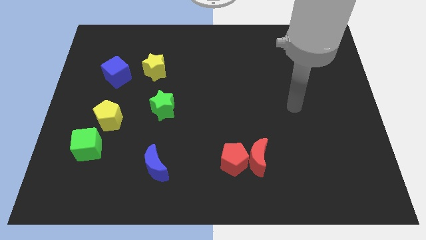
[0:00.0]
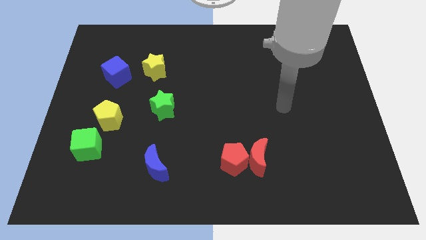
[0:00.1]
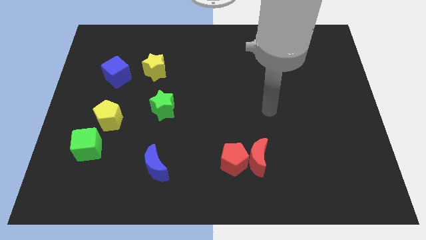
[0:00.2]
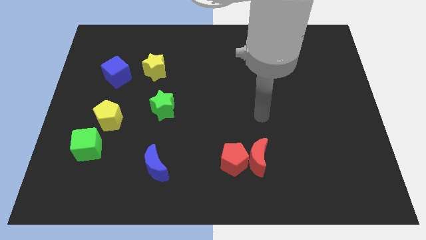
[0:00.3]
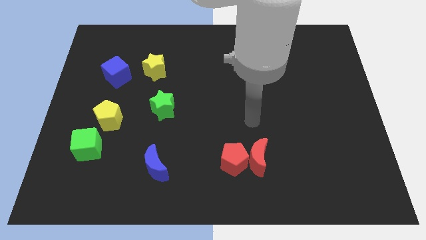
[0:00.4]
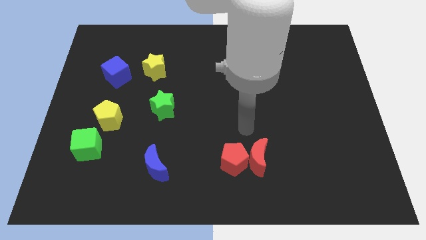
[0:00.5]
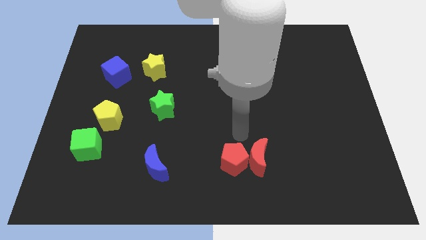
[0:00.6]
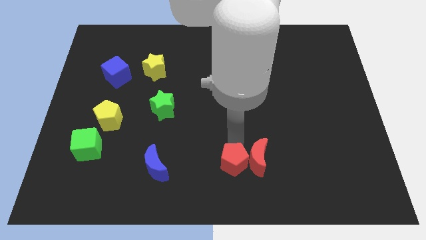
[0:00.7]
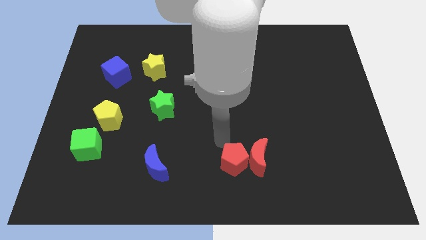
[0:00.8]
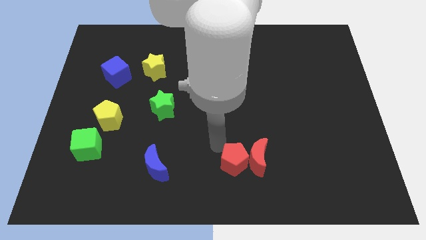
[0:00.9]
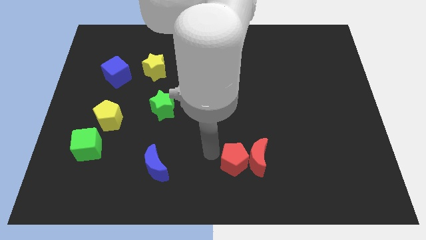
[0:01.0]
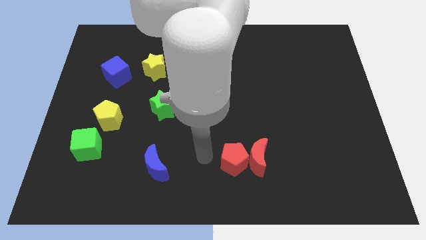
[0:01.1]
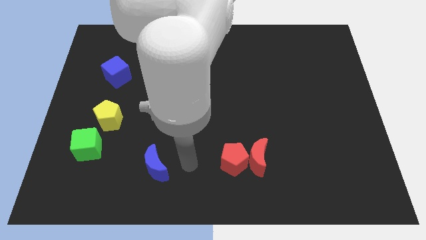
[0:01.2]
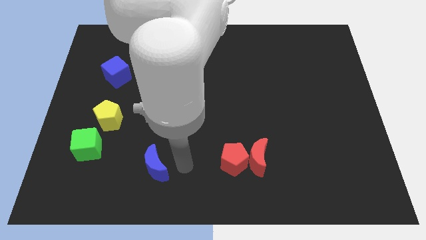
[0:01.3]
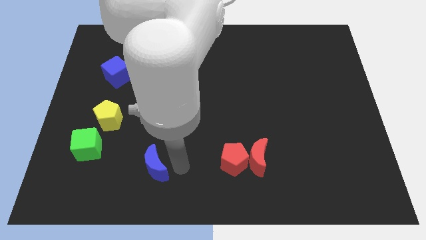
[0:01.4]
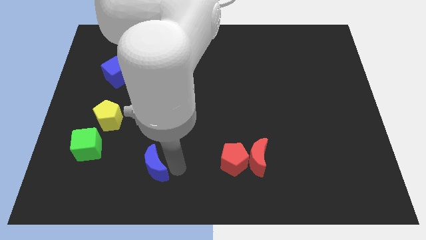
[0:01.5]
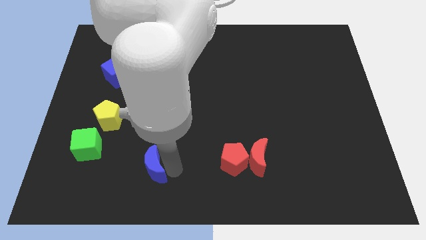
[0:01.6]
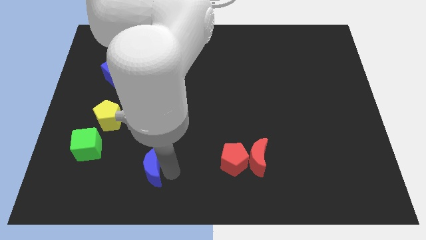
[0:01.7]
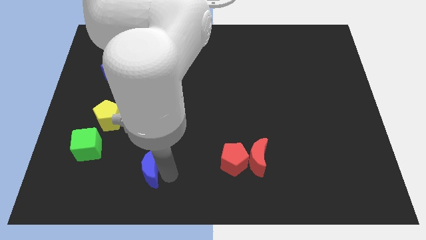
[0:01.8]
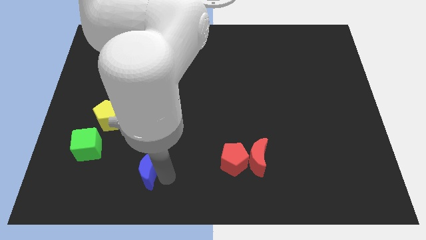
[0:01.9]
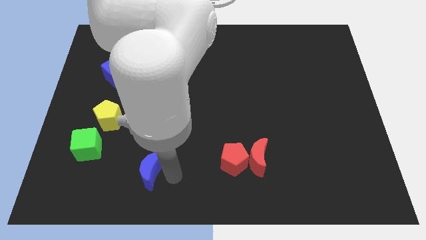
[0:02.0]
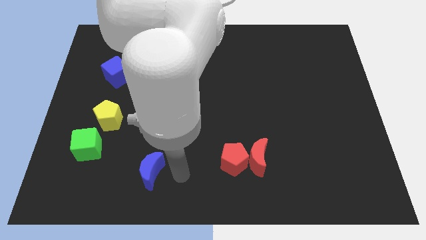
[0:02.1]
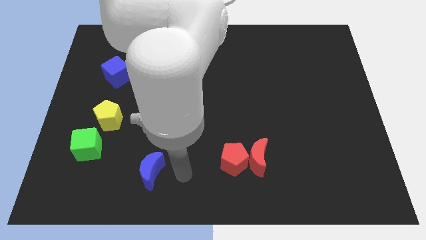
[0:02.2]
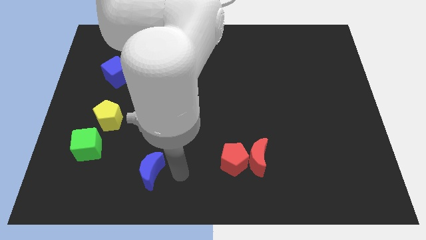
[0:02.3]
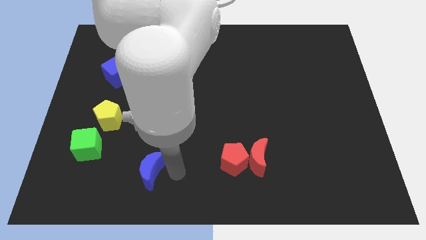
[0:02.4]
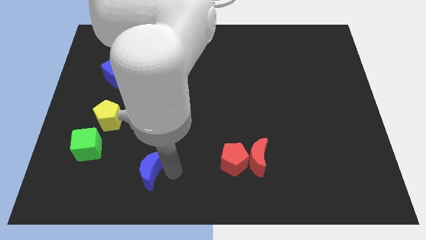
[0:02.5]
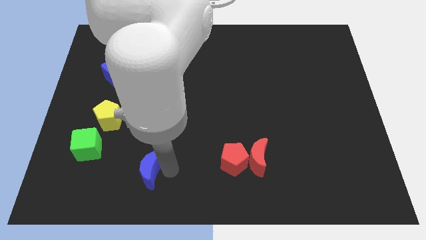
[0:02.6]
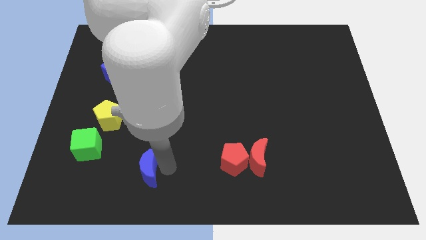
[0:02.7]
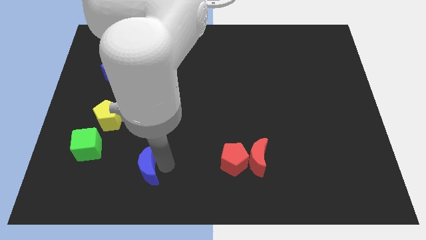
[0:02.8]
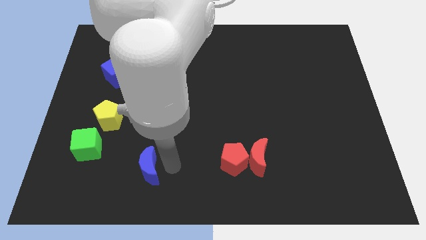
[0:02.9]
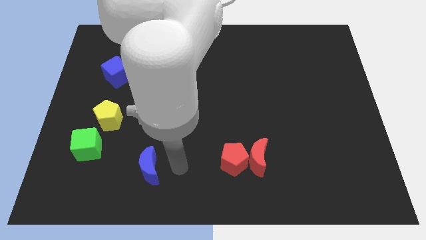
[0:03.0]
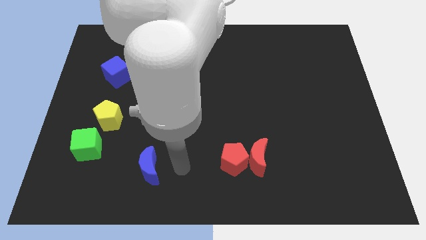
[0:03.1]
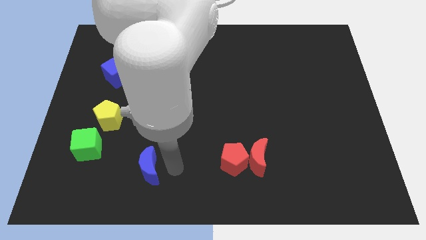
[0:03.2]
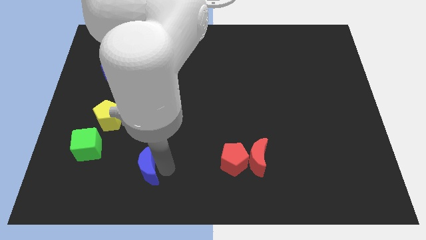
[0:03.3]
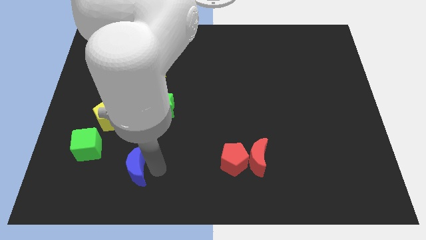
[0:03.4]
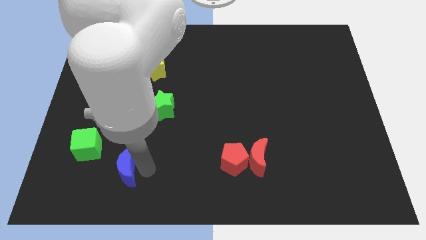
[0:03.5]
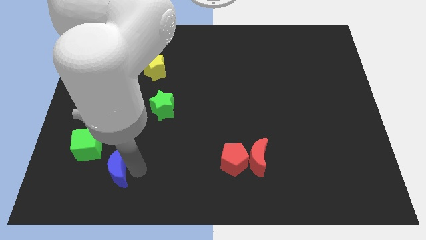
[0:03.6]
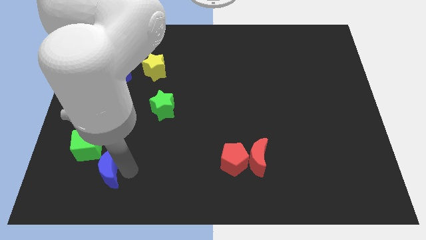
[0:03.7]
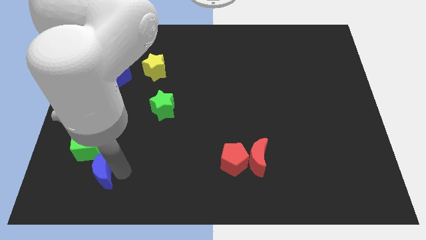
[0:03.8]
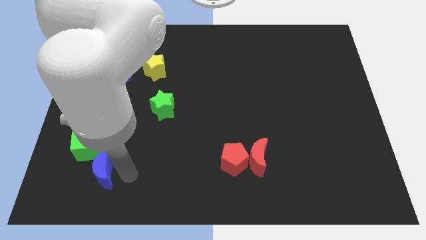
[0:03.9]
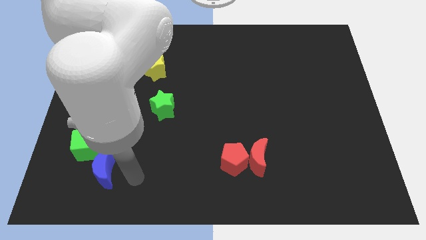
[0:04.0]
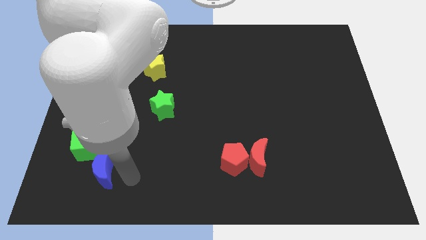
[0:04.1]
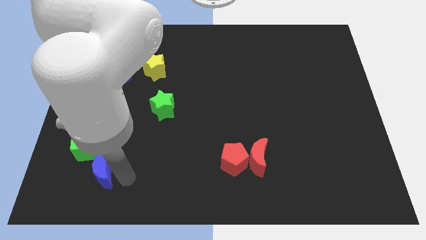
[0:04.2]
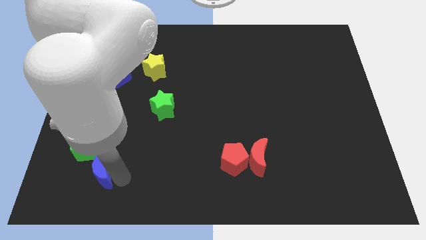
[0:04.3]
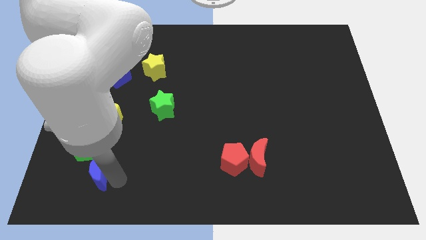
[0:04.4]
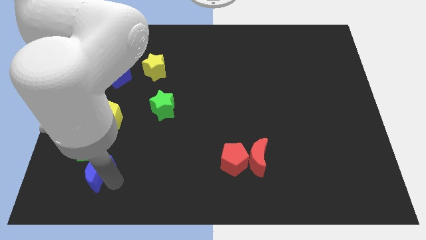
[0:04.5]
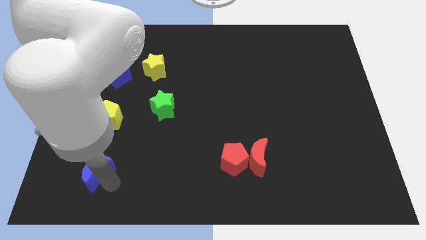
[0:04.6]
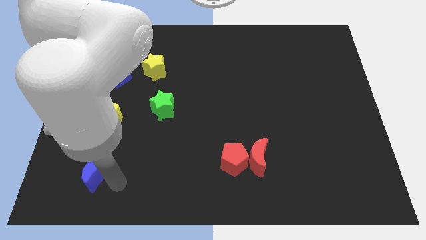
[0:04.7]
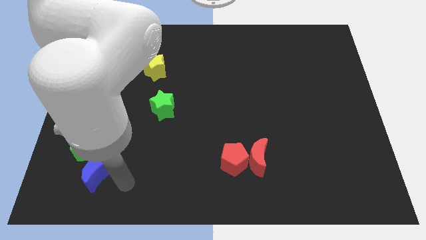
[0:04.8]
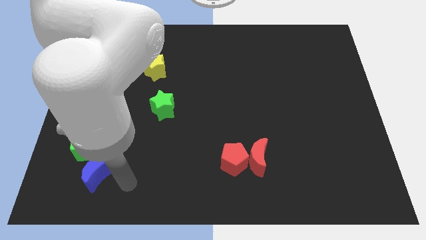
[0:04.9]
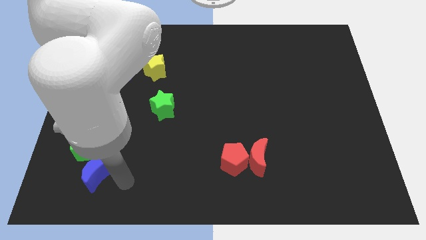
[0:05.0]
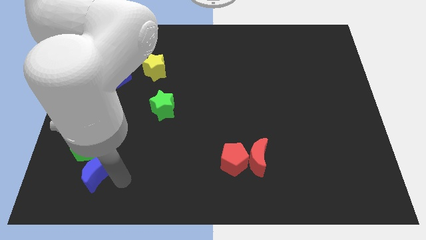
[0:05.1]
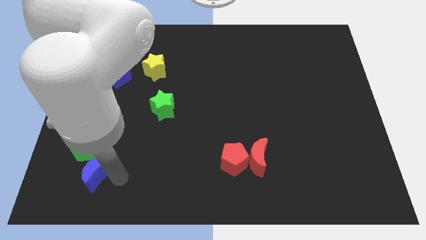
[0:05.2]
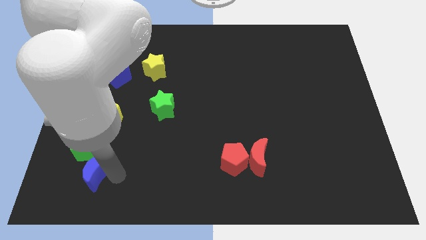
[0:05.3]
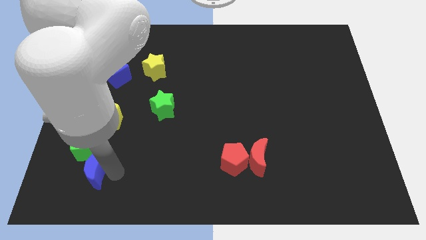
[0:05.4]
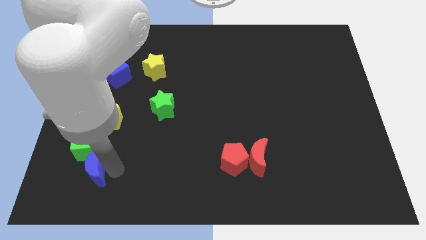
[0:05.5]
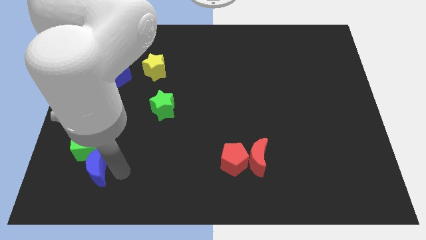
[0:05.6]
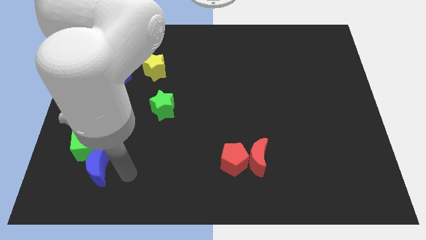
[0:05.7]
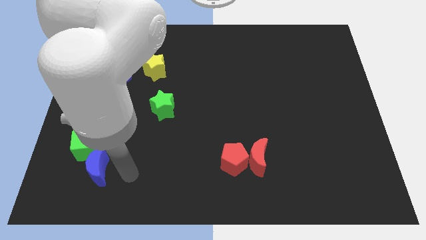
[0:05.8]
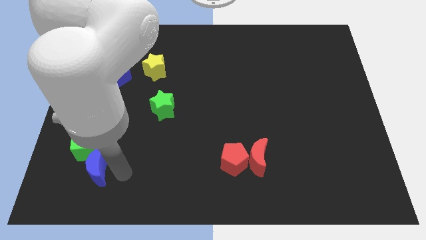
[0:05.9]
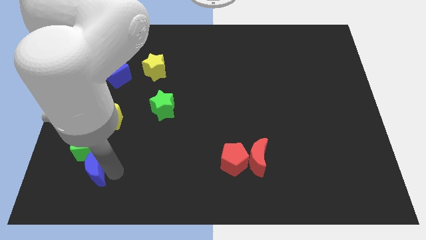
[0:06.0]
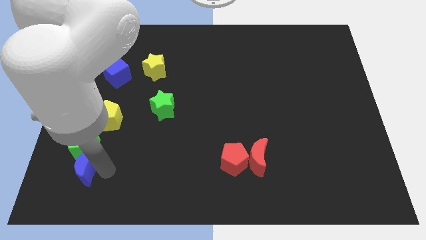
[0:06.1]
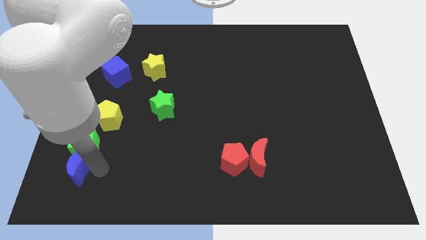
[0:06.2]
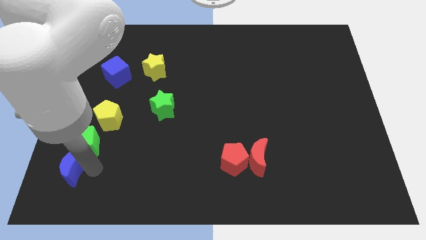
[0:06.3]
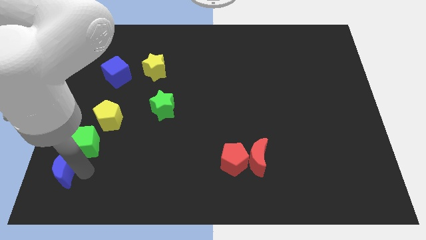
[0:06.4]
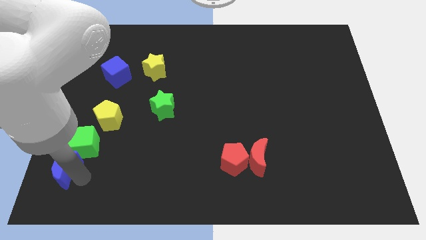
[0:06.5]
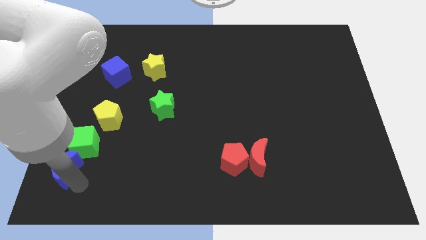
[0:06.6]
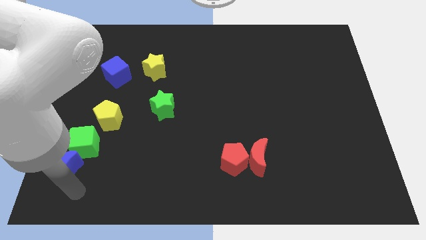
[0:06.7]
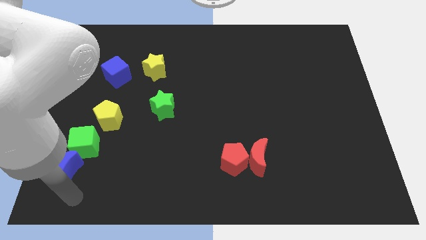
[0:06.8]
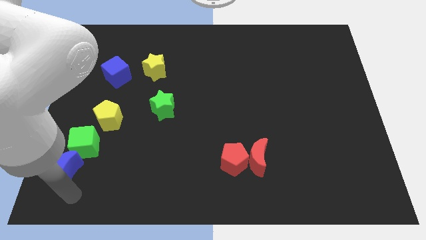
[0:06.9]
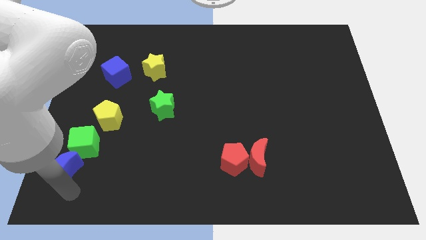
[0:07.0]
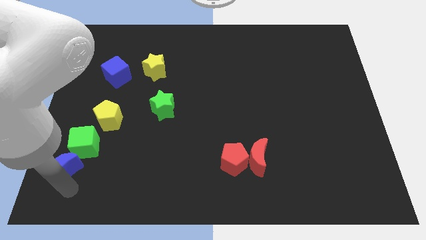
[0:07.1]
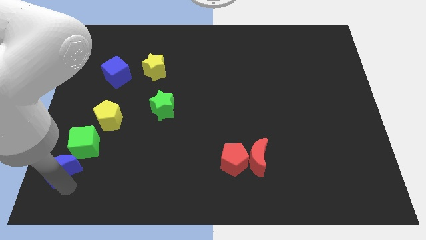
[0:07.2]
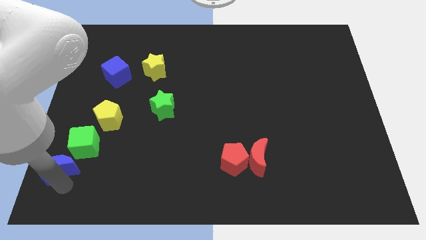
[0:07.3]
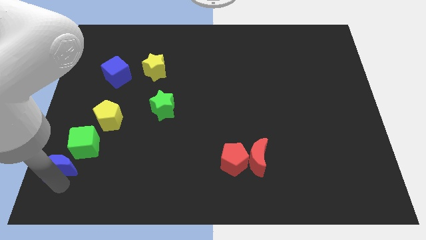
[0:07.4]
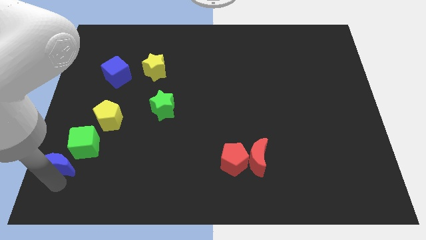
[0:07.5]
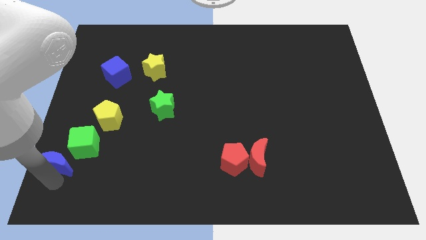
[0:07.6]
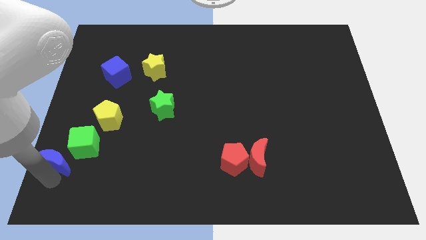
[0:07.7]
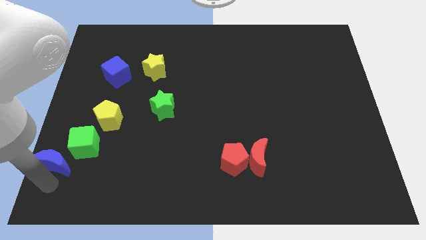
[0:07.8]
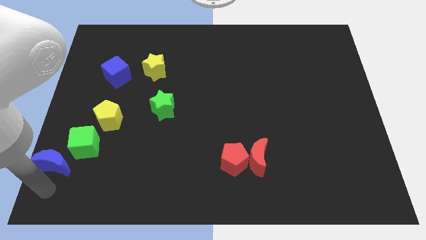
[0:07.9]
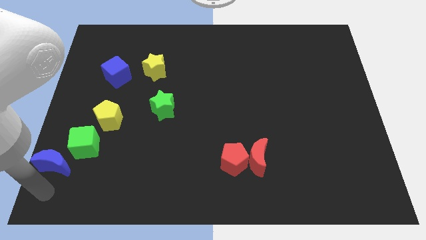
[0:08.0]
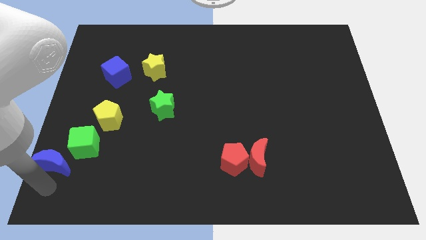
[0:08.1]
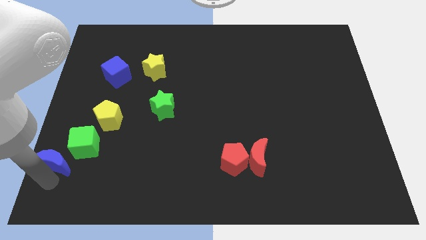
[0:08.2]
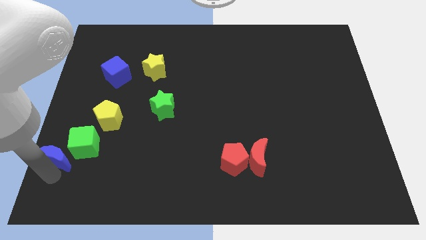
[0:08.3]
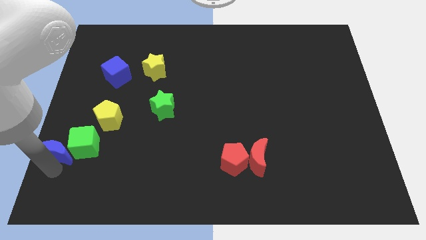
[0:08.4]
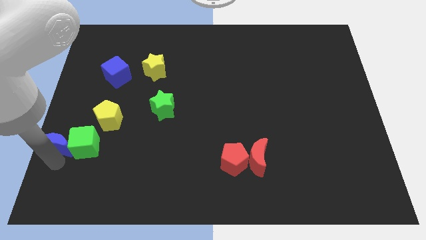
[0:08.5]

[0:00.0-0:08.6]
move the blue moon to the center left
